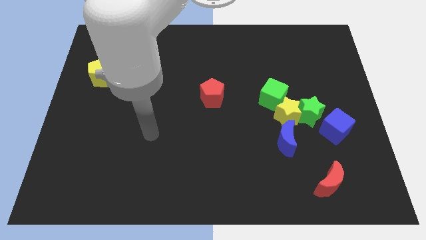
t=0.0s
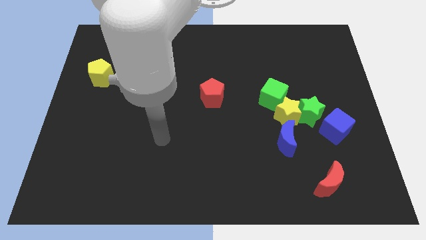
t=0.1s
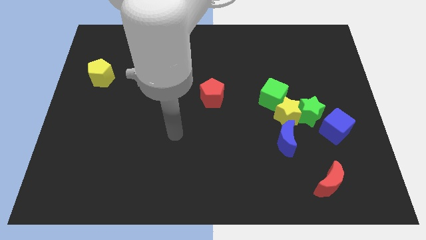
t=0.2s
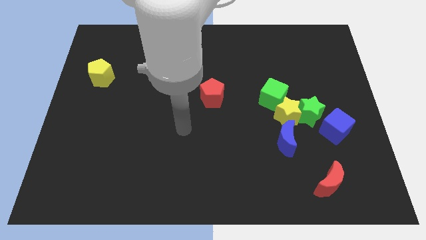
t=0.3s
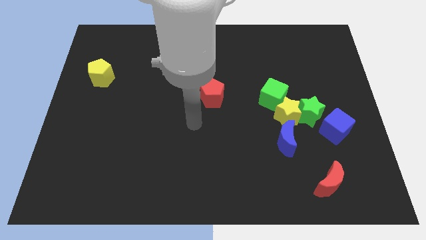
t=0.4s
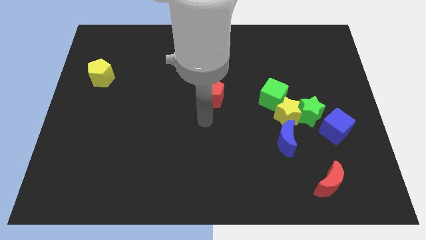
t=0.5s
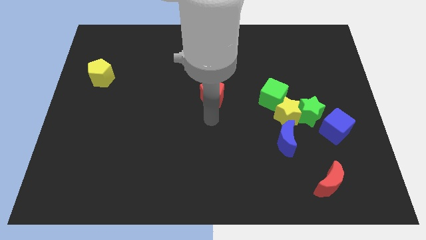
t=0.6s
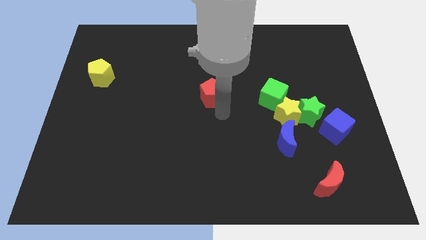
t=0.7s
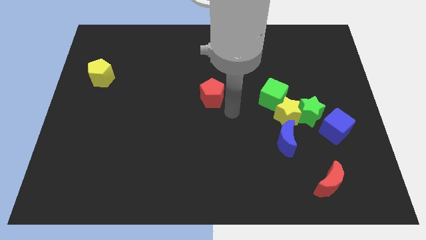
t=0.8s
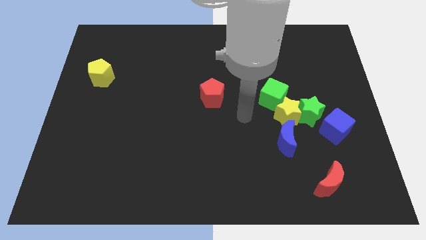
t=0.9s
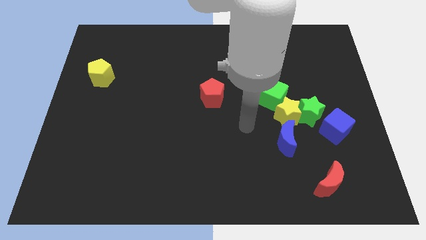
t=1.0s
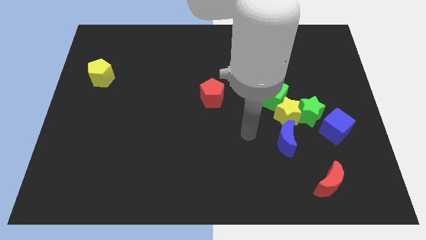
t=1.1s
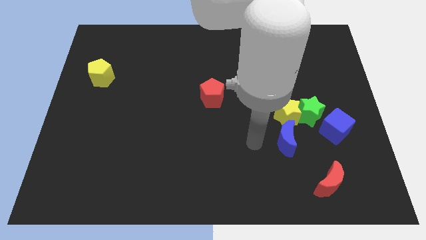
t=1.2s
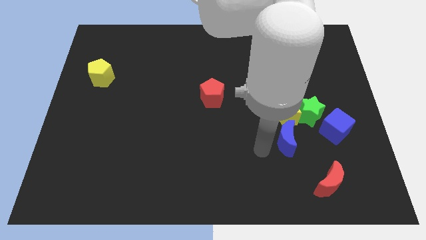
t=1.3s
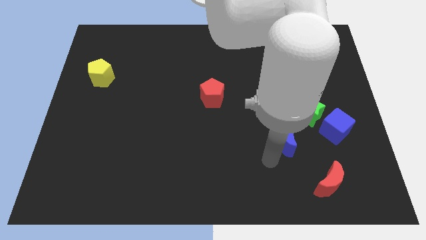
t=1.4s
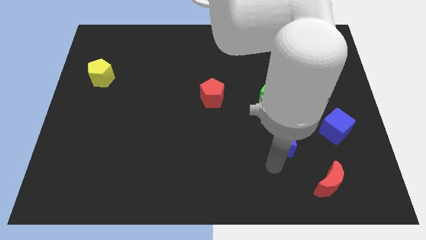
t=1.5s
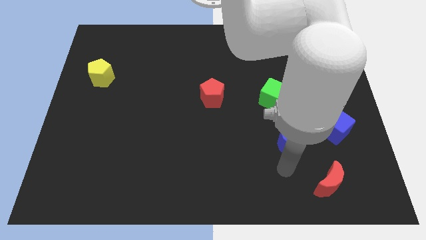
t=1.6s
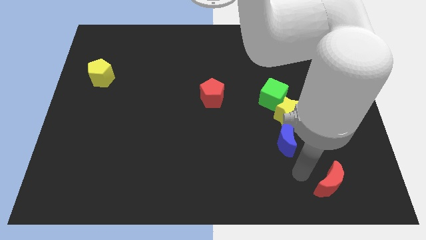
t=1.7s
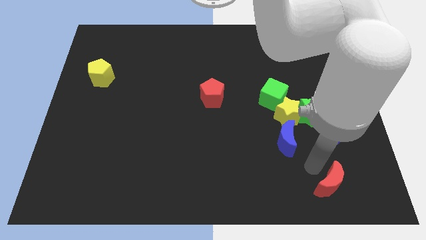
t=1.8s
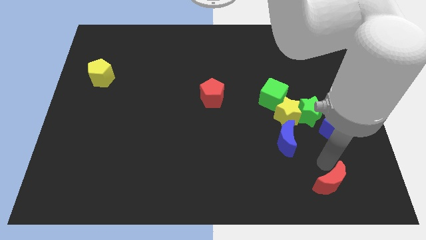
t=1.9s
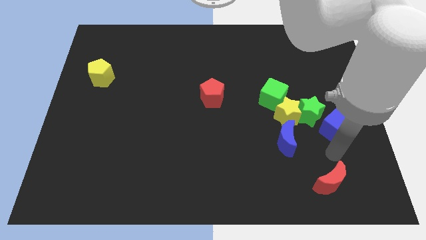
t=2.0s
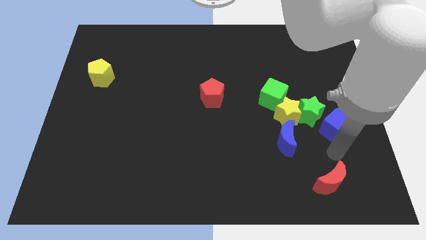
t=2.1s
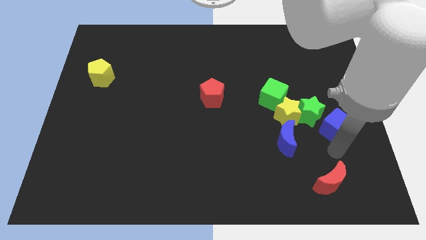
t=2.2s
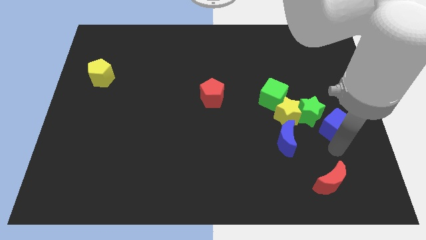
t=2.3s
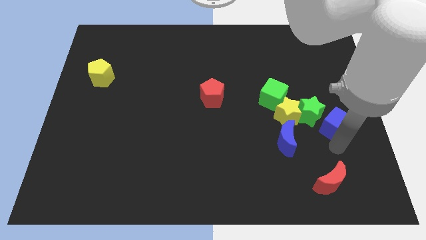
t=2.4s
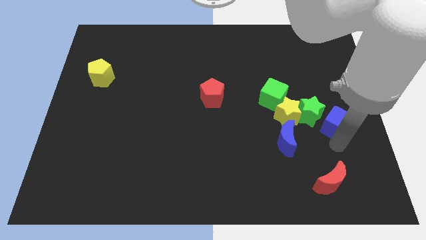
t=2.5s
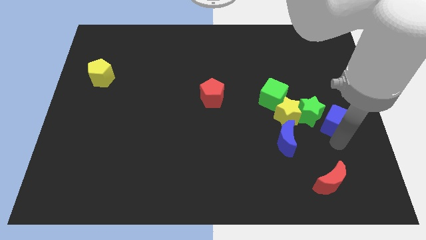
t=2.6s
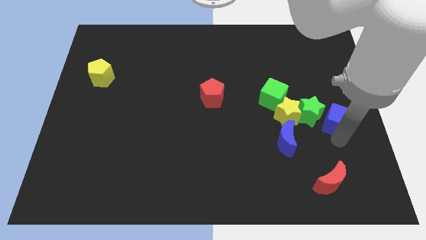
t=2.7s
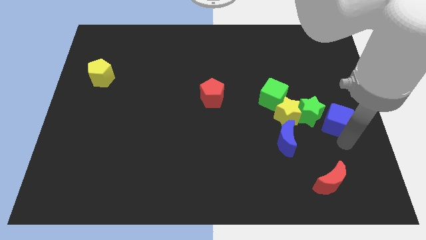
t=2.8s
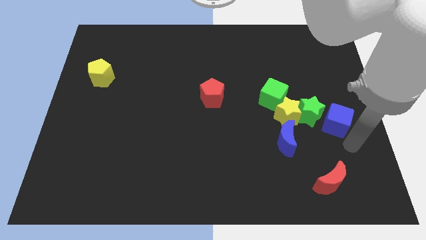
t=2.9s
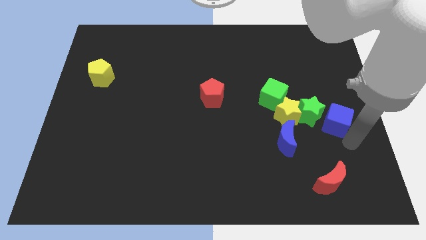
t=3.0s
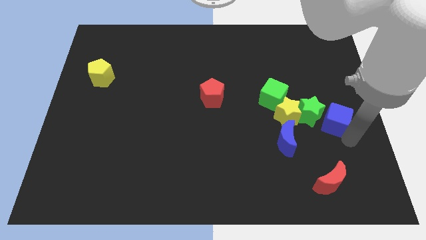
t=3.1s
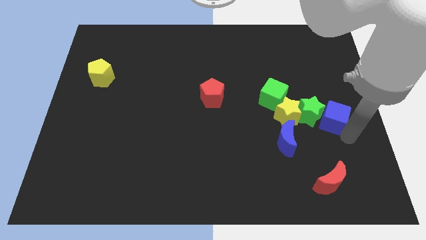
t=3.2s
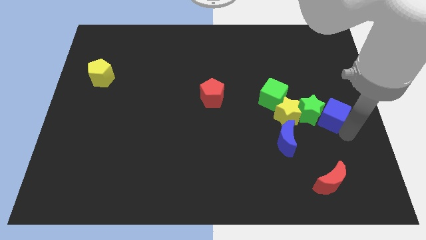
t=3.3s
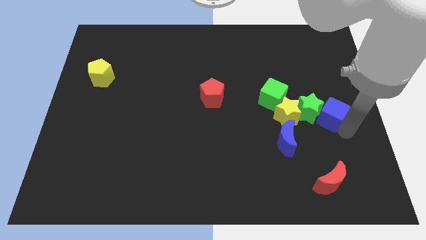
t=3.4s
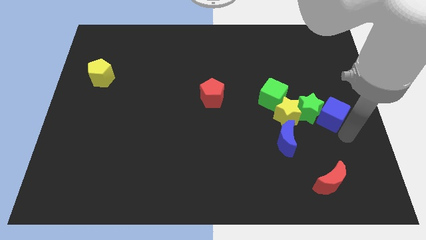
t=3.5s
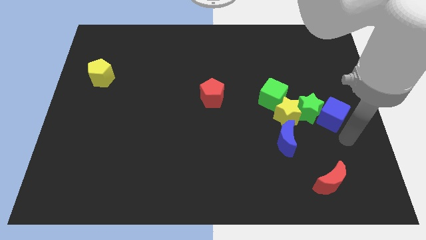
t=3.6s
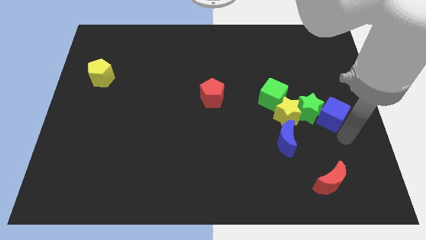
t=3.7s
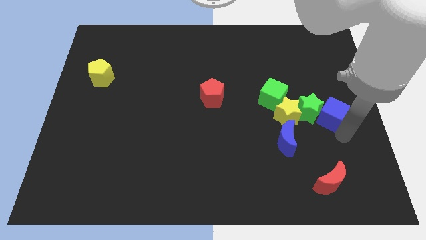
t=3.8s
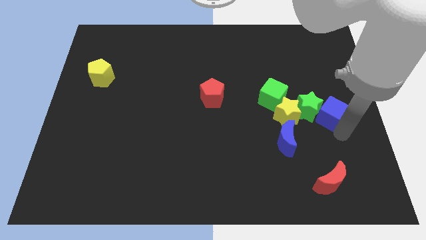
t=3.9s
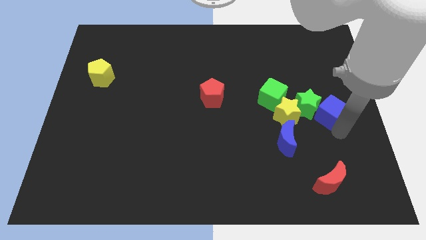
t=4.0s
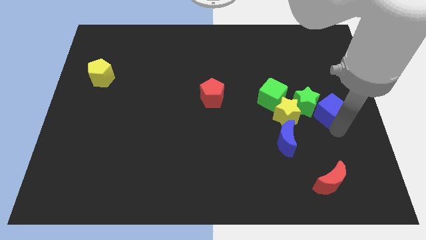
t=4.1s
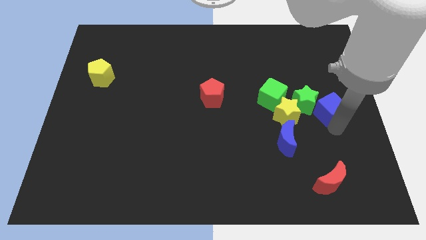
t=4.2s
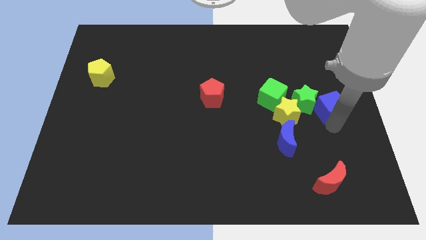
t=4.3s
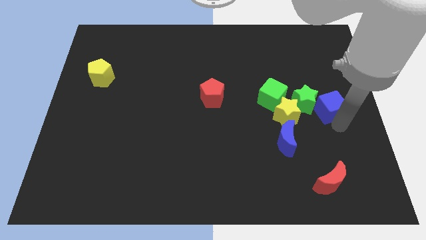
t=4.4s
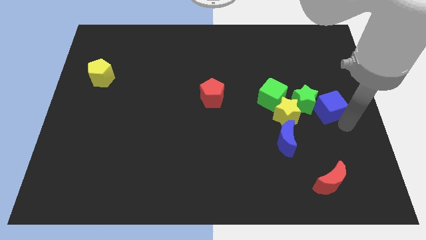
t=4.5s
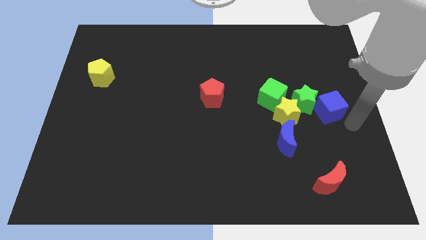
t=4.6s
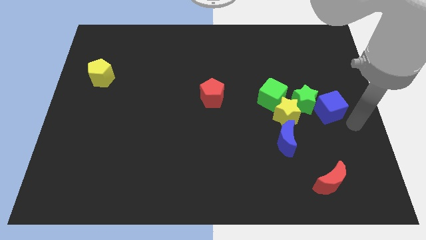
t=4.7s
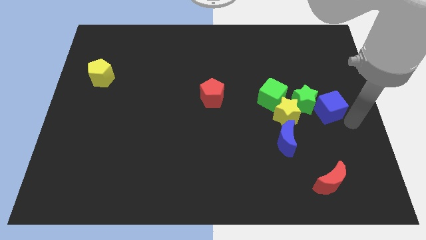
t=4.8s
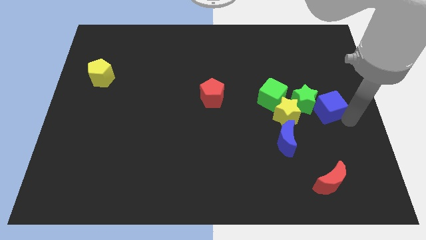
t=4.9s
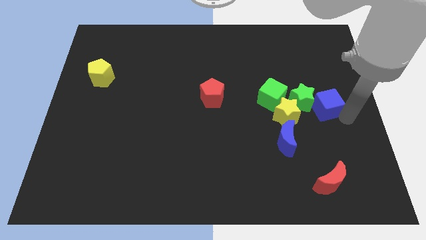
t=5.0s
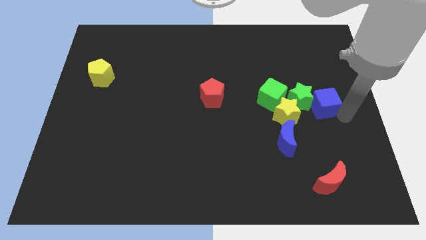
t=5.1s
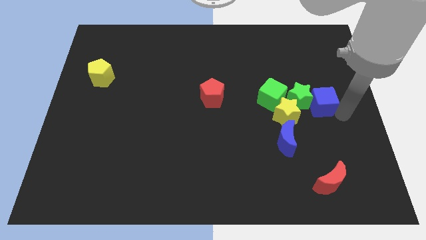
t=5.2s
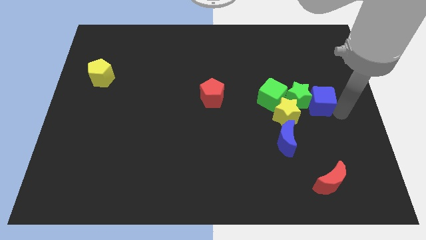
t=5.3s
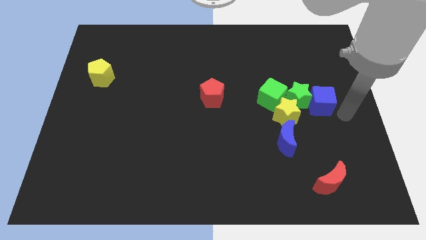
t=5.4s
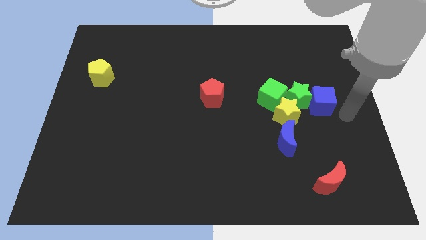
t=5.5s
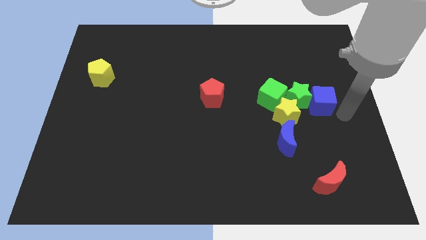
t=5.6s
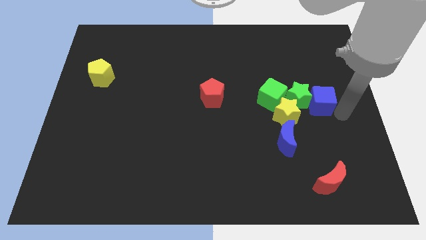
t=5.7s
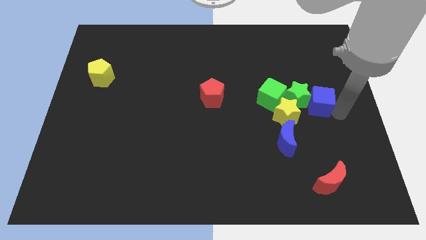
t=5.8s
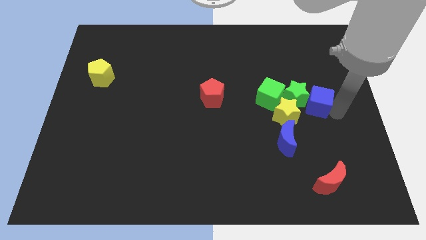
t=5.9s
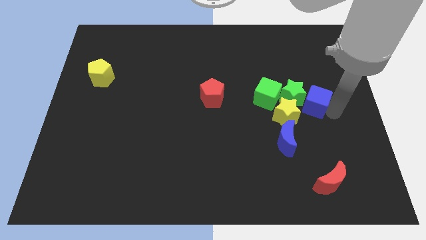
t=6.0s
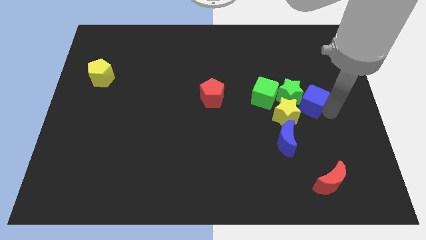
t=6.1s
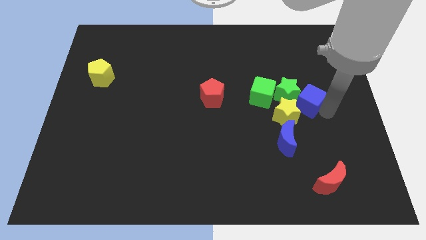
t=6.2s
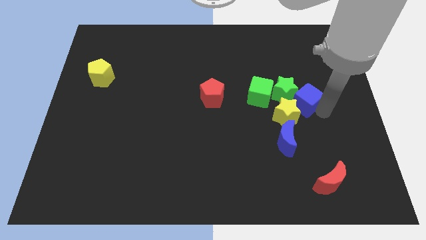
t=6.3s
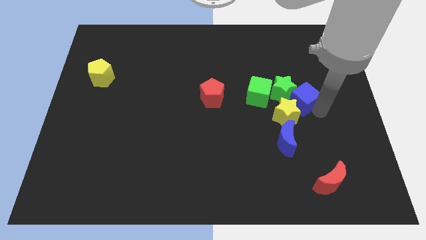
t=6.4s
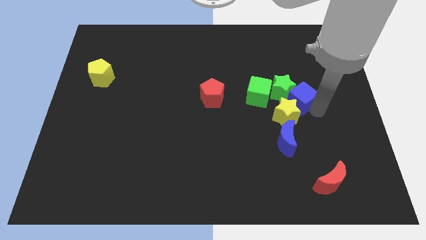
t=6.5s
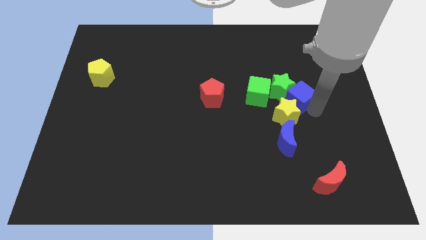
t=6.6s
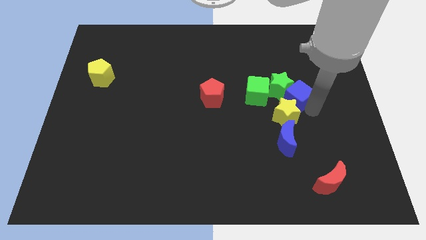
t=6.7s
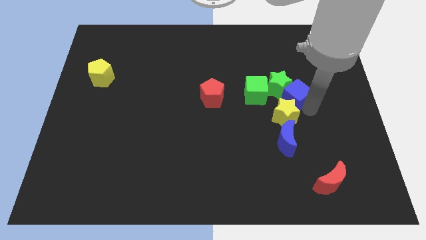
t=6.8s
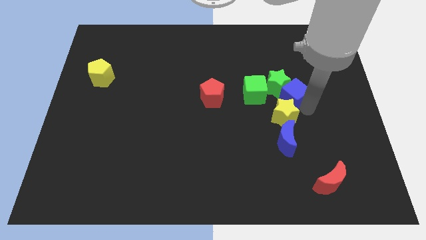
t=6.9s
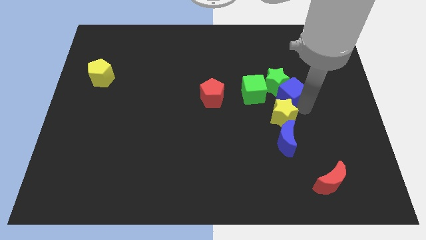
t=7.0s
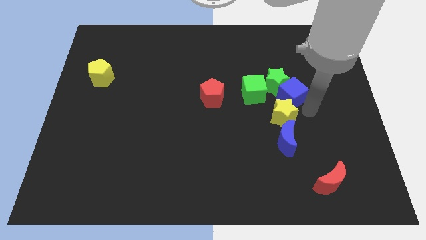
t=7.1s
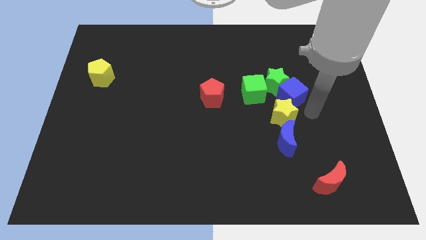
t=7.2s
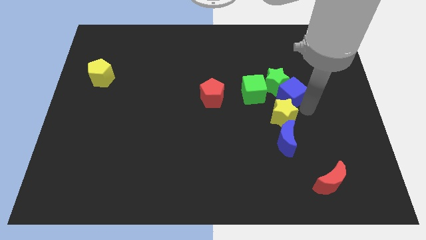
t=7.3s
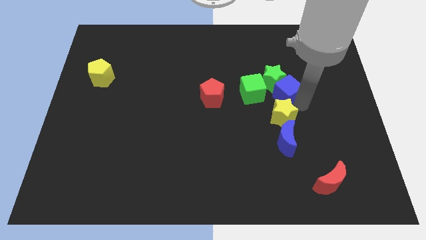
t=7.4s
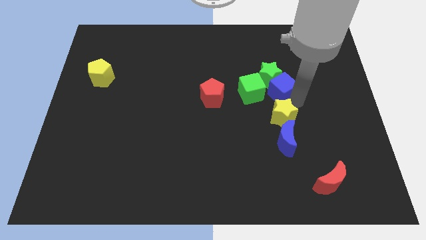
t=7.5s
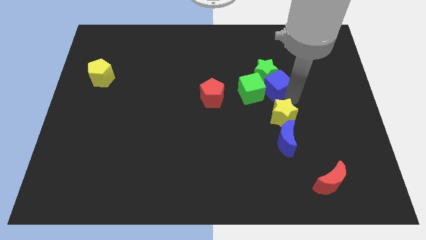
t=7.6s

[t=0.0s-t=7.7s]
slide the blue cube to the right side of the red pentagon

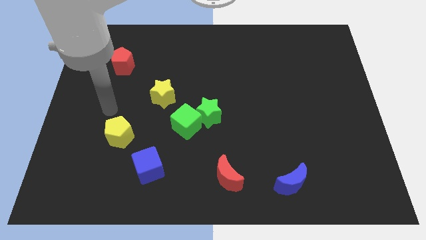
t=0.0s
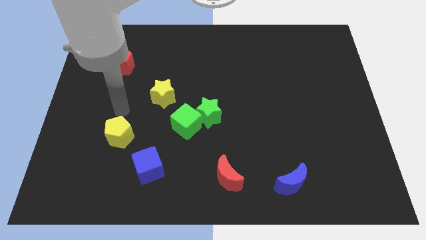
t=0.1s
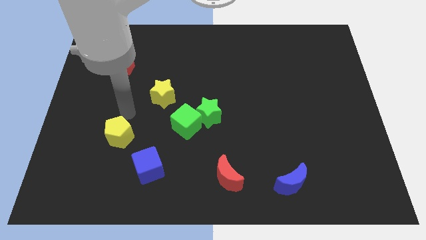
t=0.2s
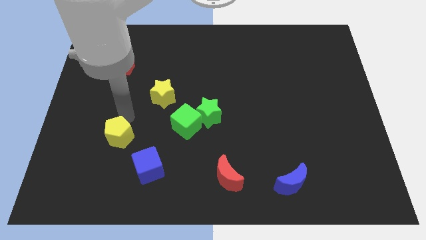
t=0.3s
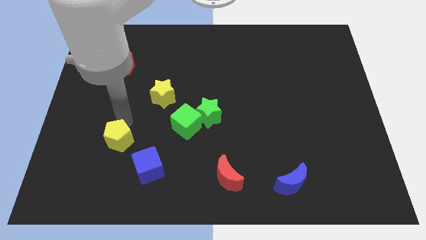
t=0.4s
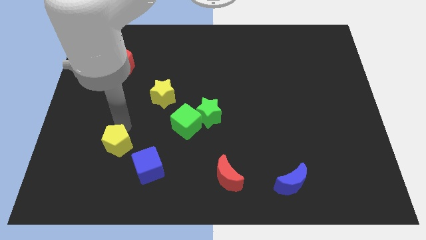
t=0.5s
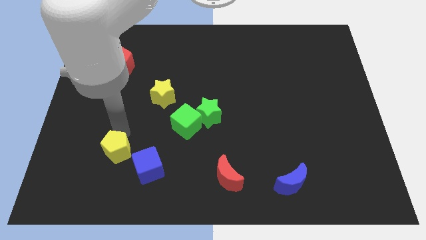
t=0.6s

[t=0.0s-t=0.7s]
push the yellow pentagon just left of the blue cube
